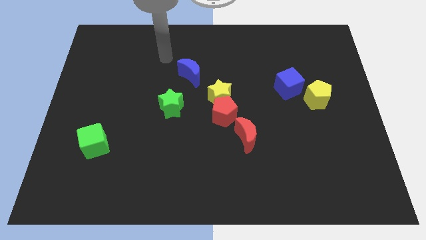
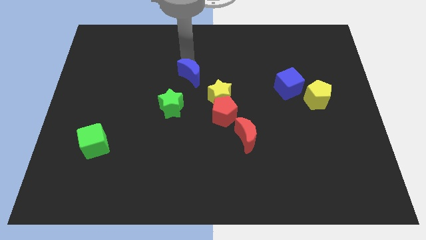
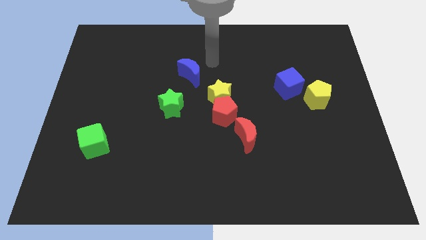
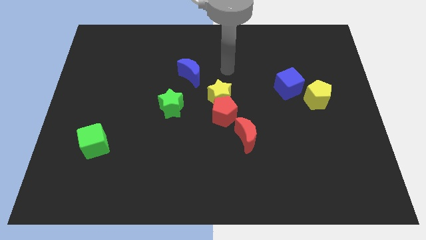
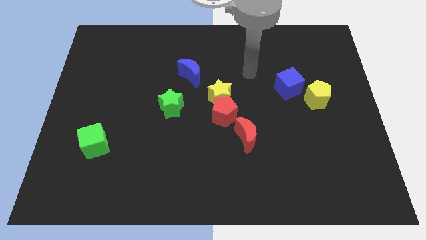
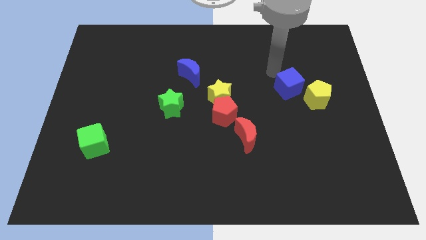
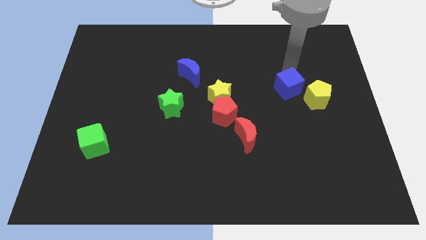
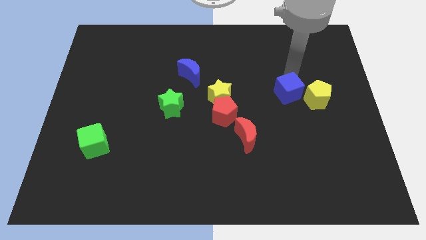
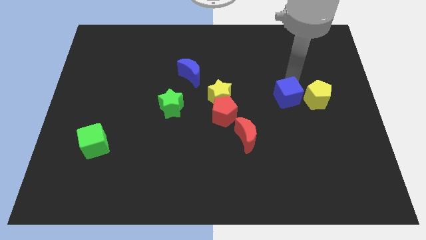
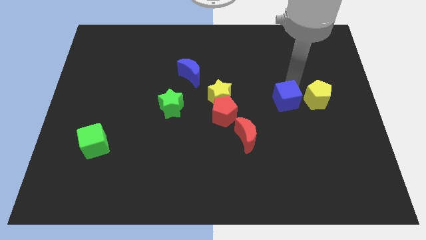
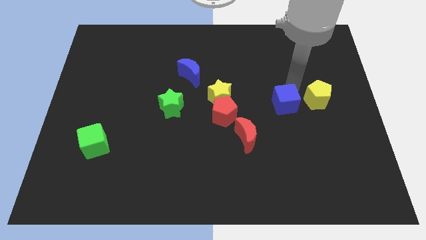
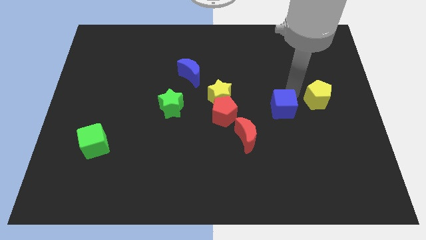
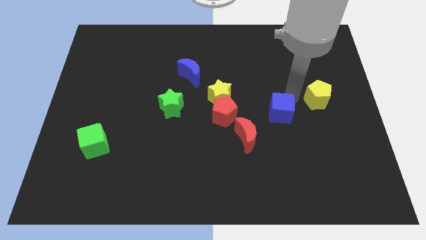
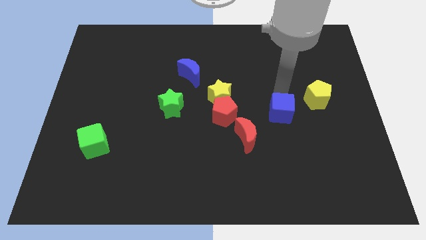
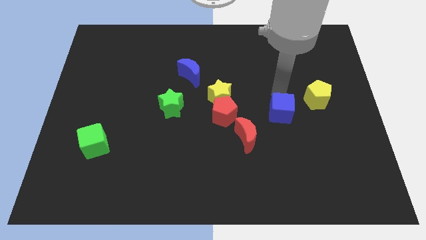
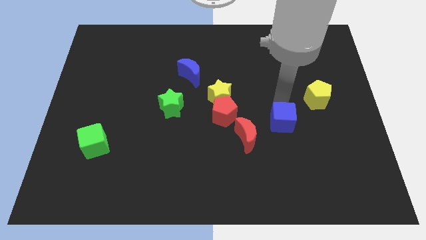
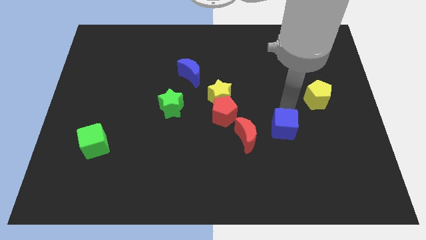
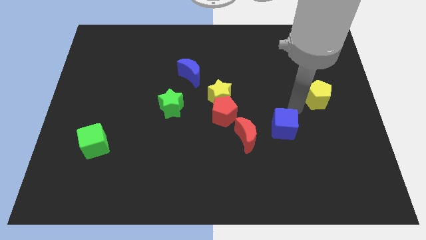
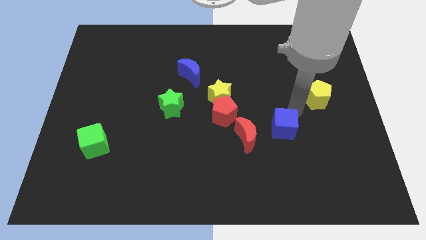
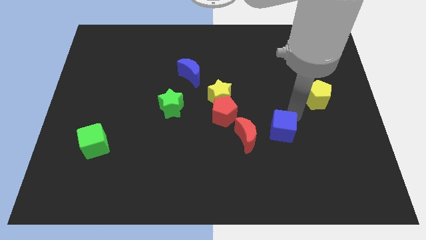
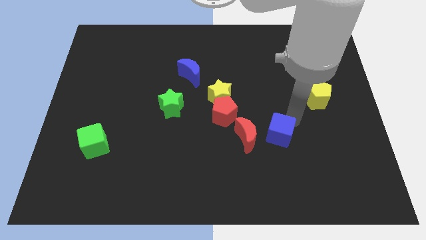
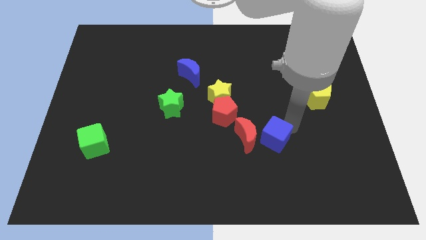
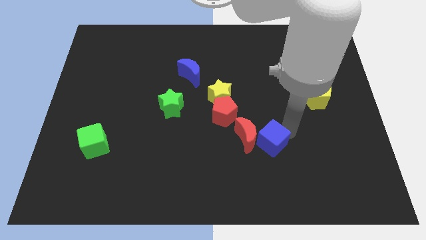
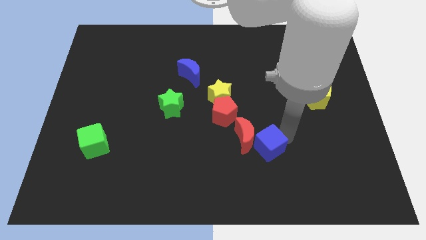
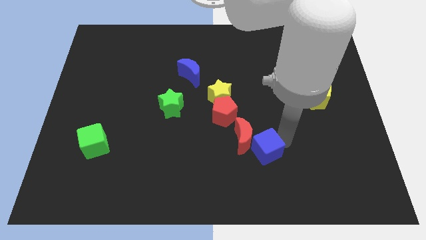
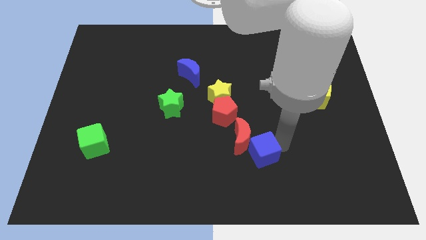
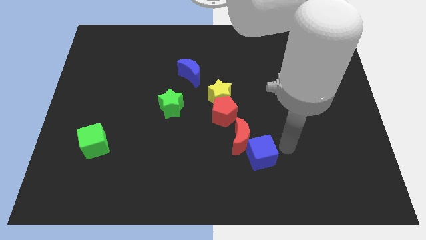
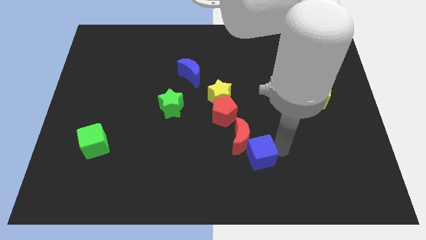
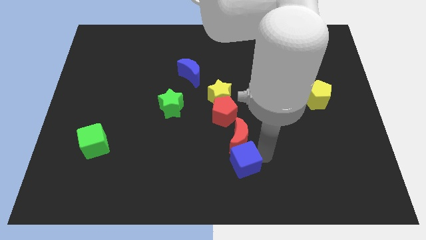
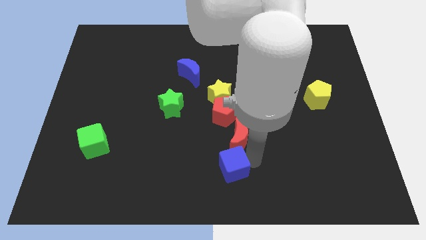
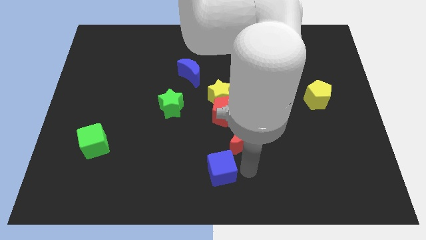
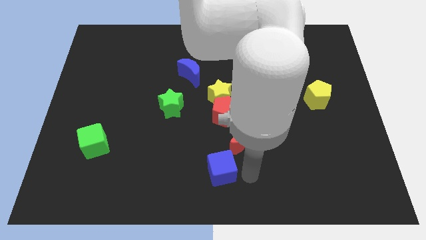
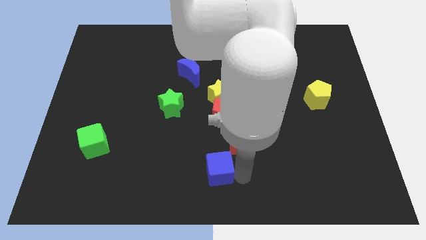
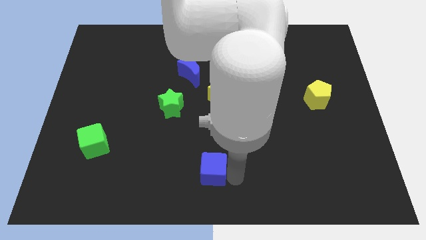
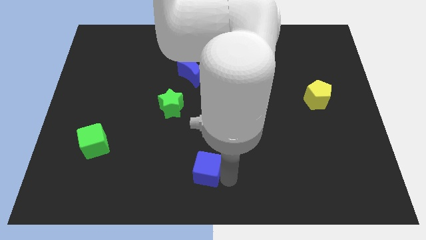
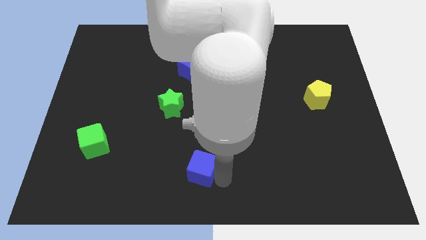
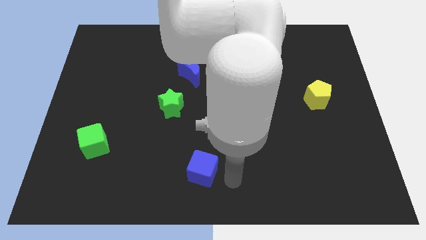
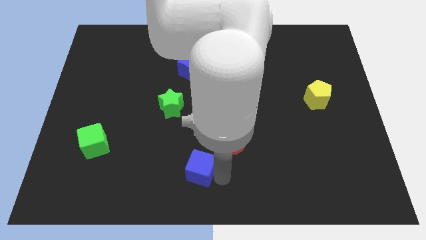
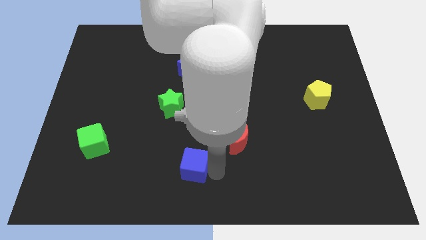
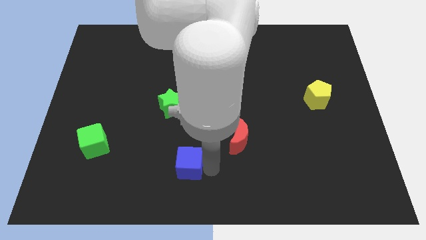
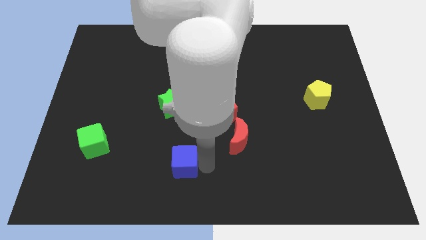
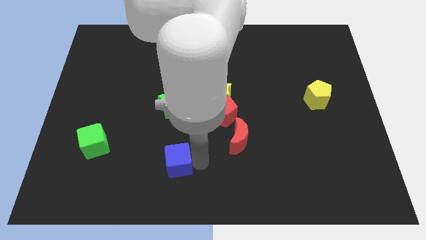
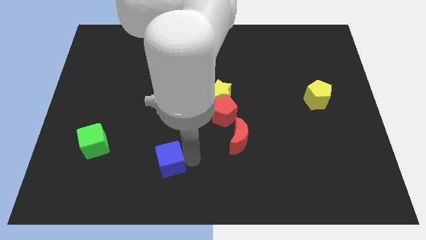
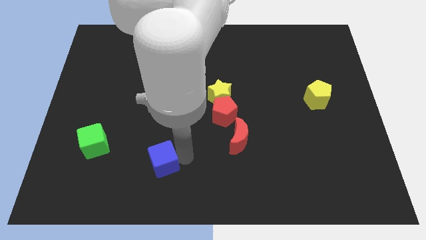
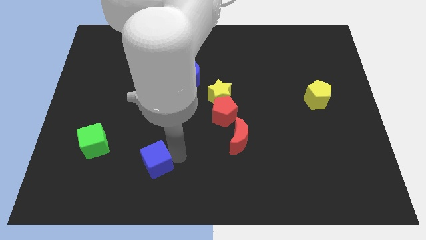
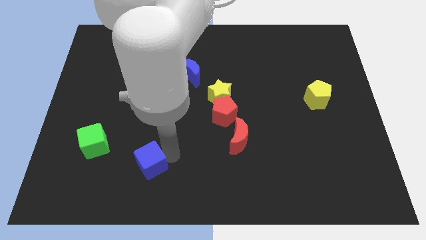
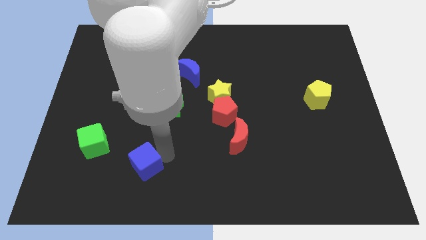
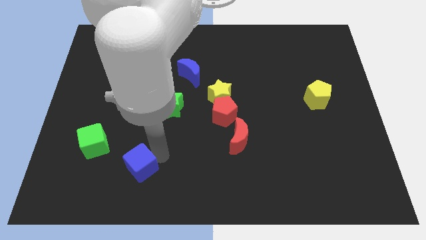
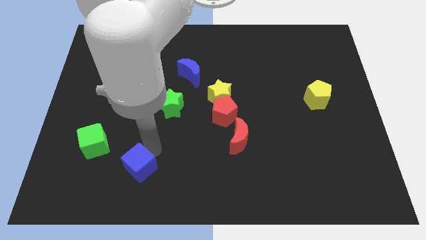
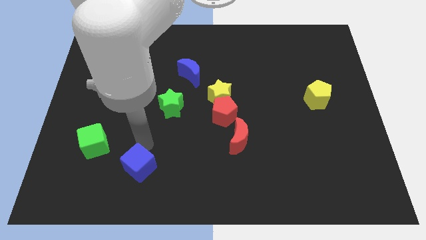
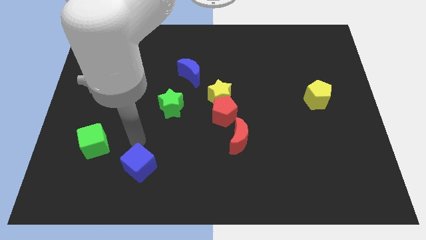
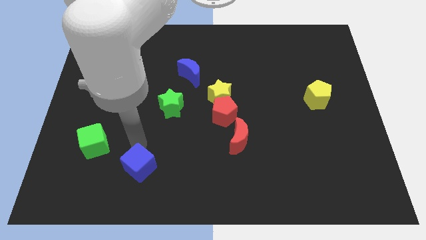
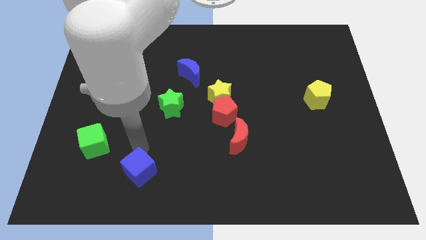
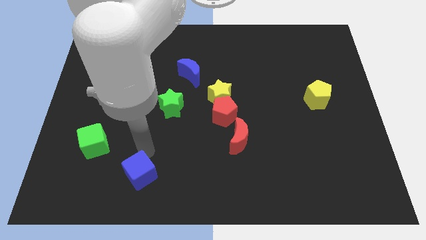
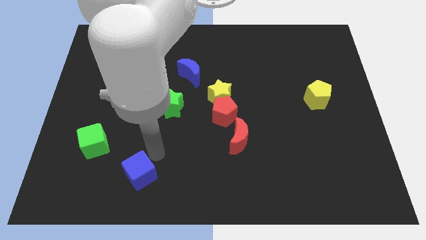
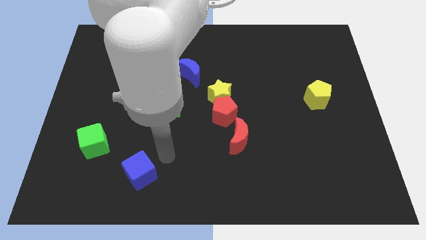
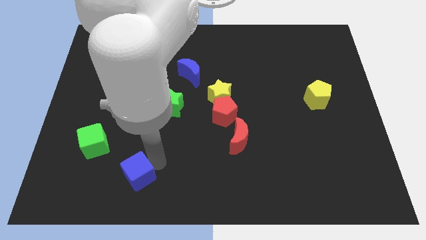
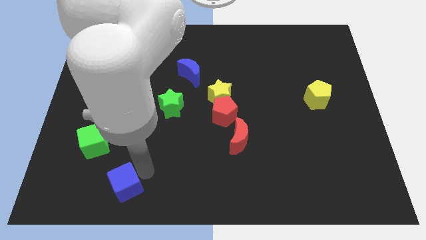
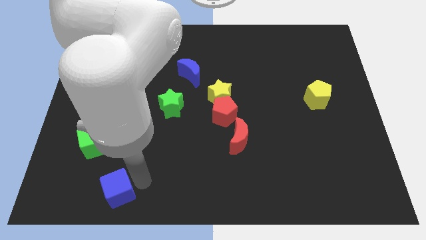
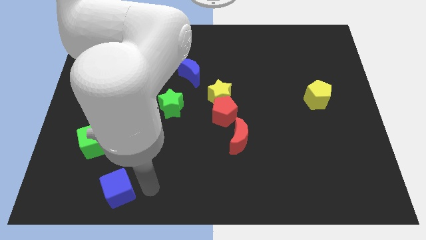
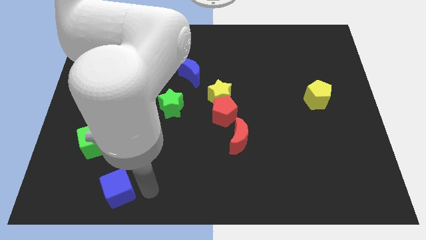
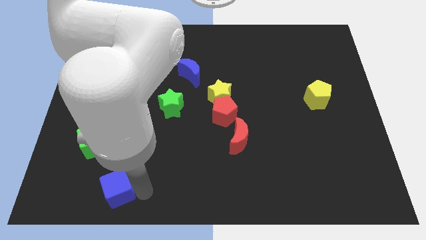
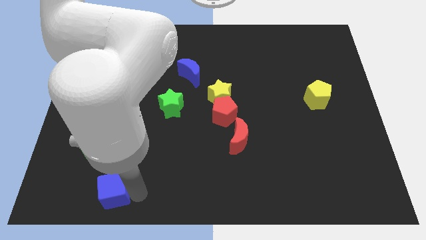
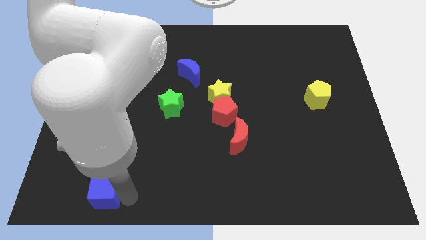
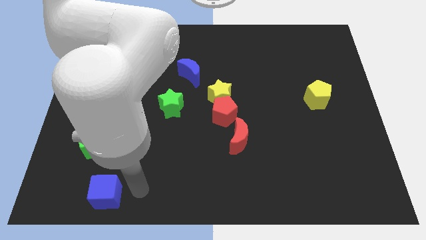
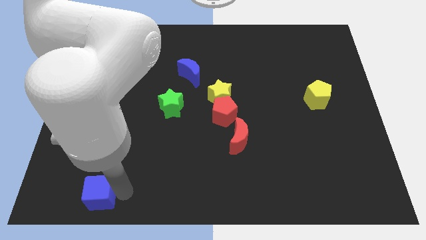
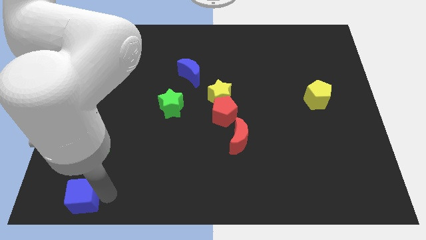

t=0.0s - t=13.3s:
move the blue cube to the bottom left
